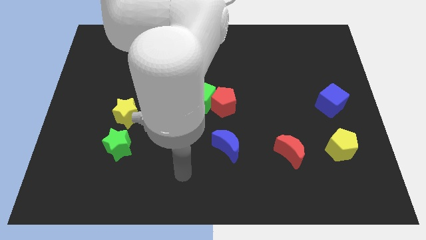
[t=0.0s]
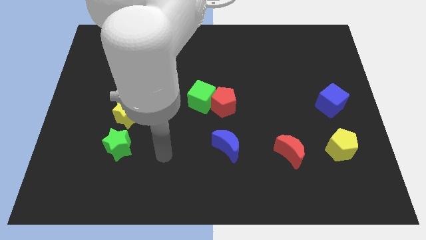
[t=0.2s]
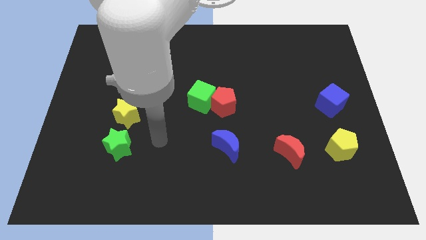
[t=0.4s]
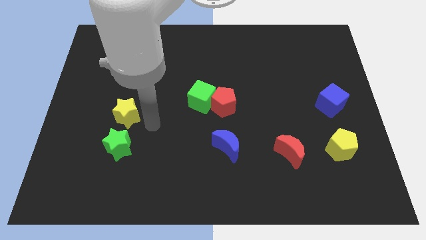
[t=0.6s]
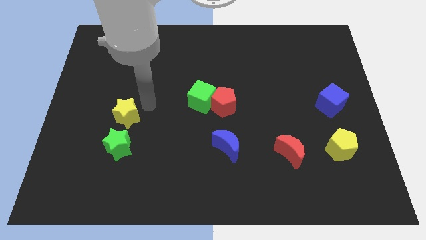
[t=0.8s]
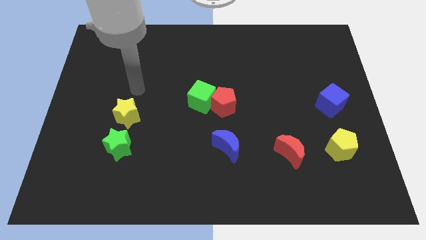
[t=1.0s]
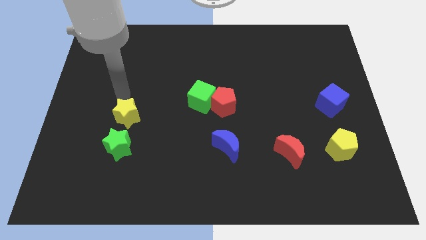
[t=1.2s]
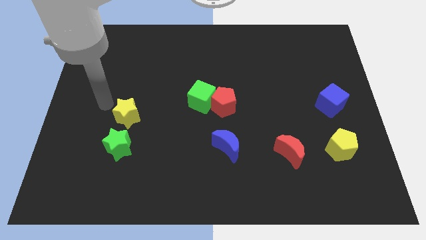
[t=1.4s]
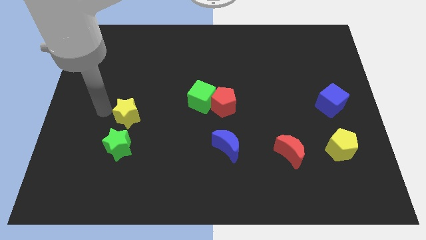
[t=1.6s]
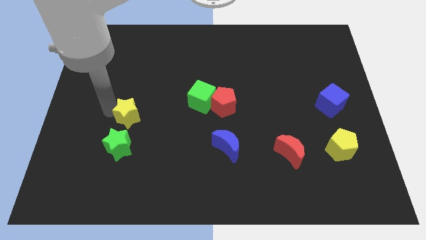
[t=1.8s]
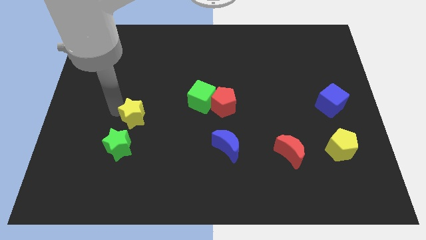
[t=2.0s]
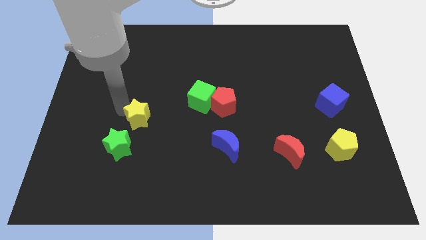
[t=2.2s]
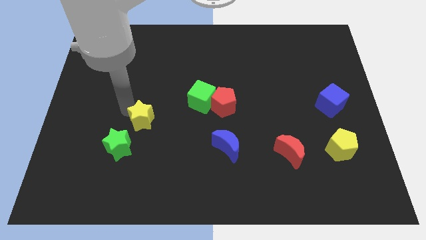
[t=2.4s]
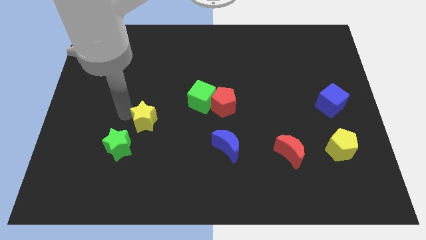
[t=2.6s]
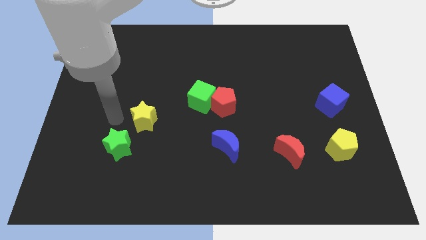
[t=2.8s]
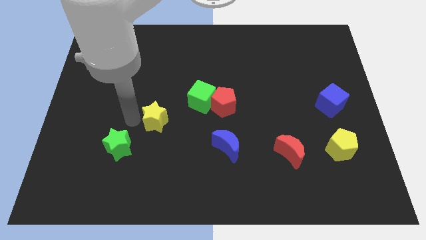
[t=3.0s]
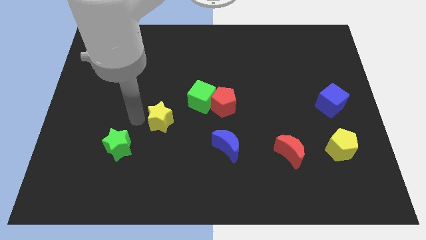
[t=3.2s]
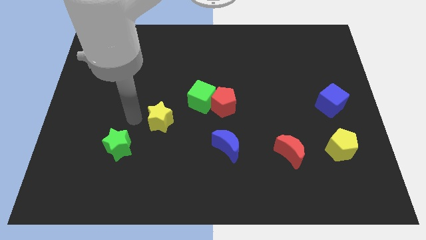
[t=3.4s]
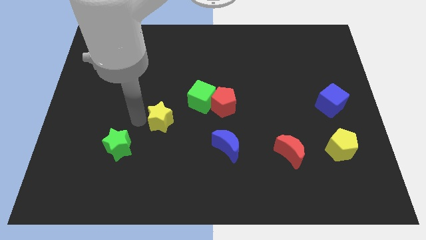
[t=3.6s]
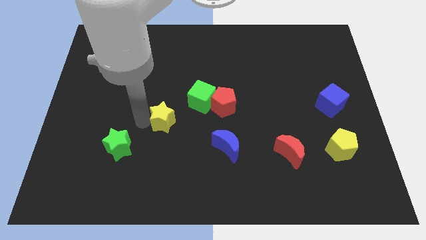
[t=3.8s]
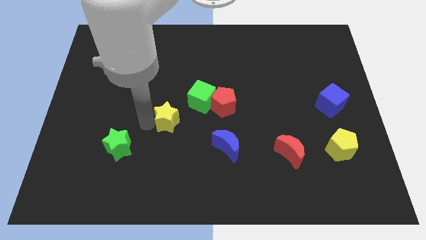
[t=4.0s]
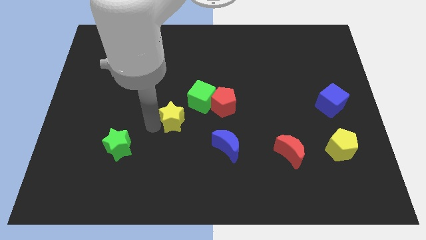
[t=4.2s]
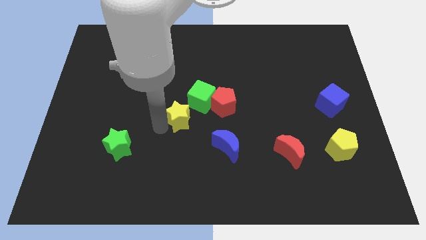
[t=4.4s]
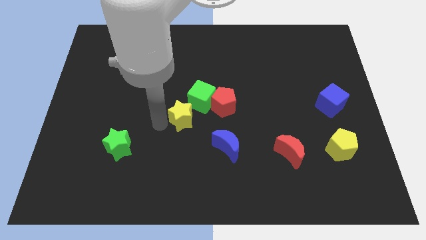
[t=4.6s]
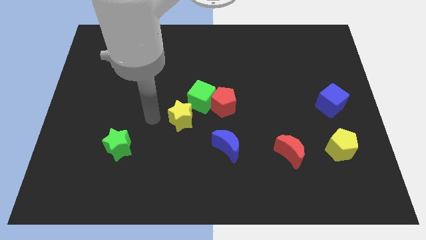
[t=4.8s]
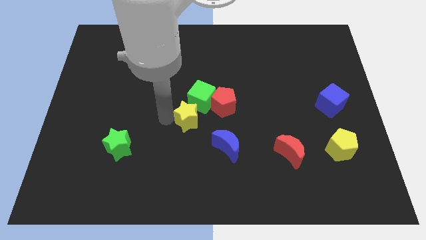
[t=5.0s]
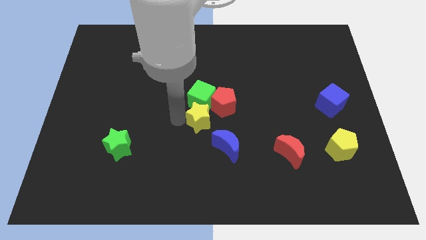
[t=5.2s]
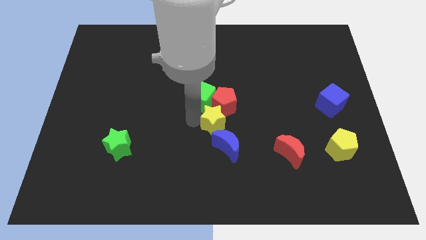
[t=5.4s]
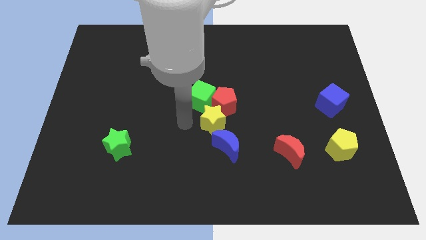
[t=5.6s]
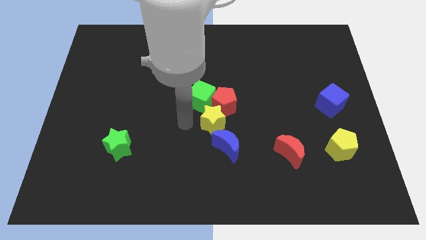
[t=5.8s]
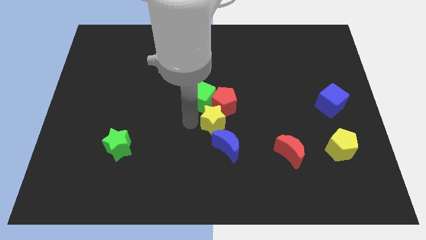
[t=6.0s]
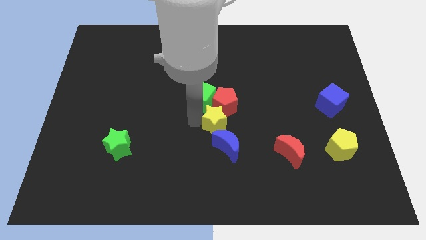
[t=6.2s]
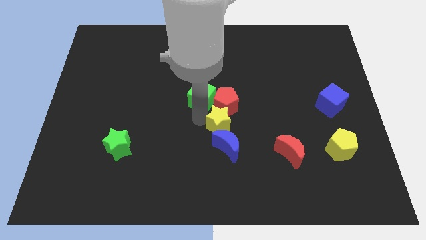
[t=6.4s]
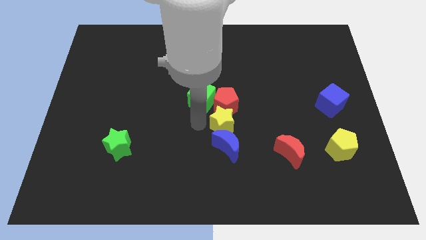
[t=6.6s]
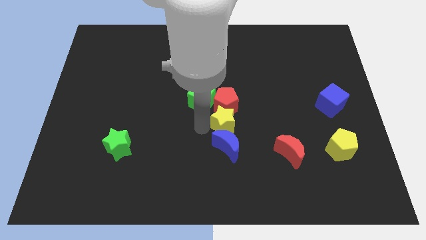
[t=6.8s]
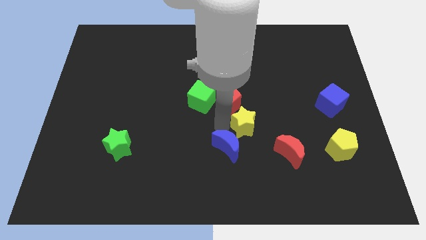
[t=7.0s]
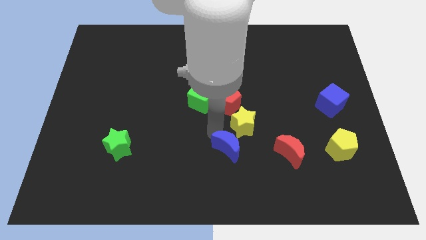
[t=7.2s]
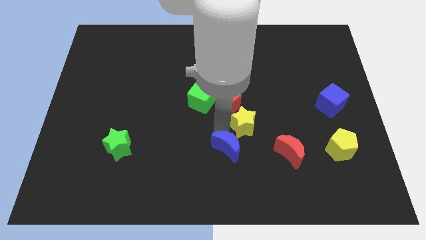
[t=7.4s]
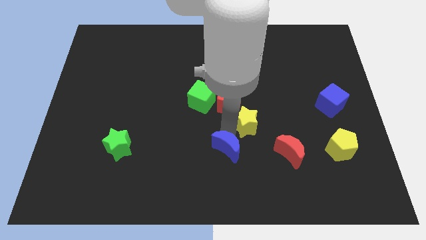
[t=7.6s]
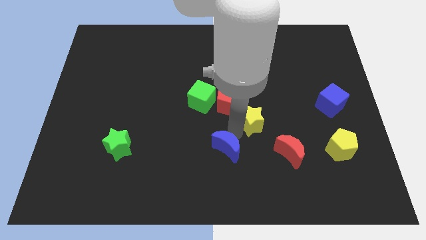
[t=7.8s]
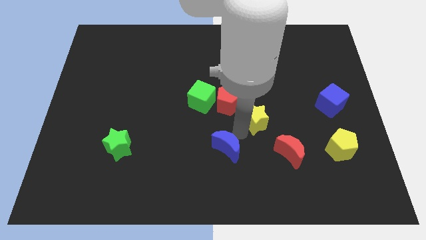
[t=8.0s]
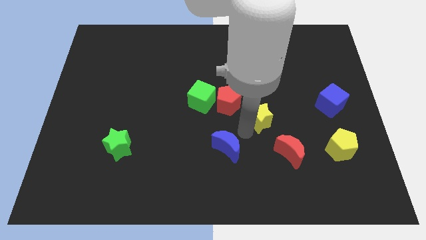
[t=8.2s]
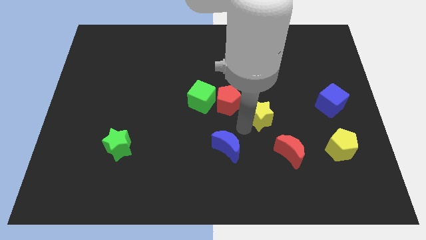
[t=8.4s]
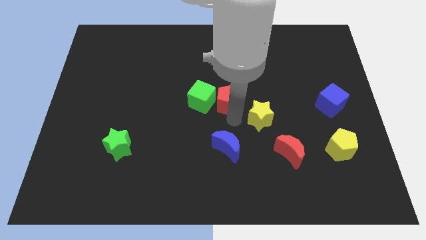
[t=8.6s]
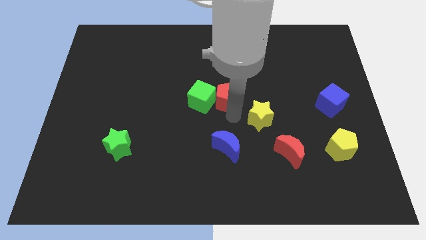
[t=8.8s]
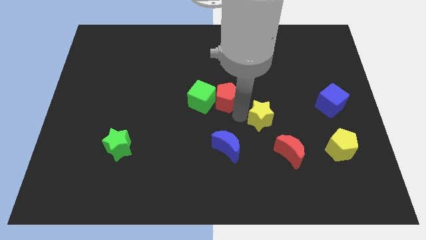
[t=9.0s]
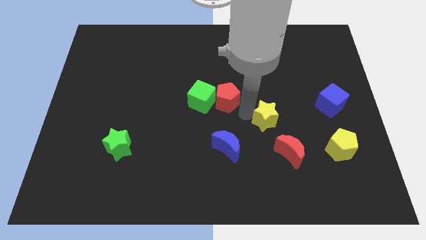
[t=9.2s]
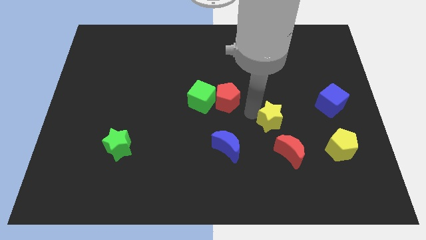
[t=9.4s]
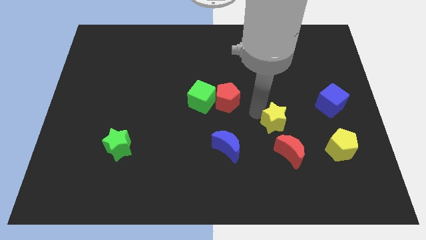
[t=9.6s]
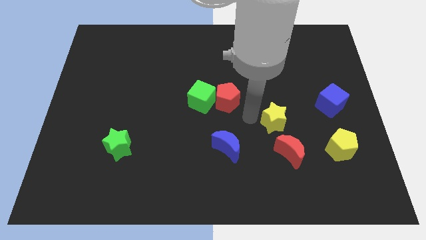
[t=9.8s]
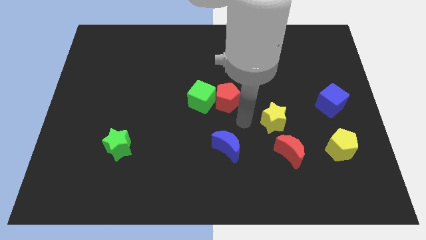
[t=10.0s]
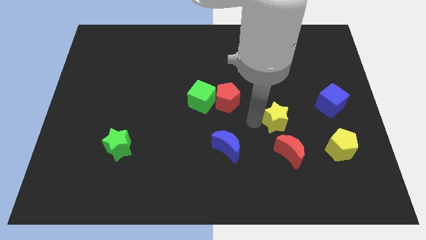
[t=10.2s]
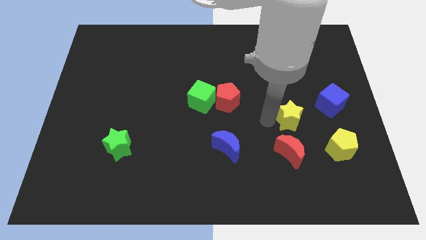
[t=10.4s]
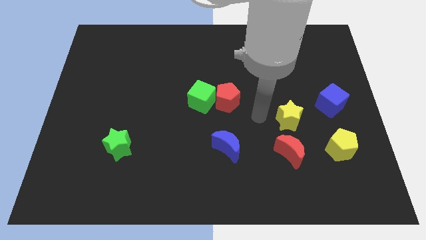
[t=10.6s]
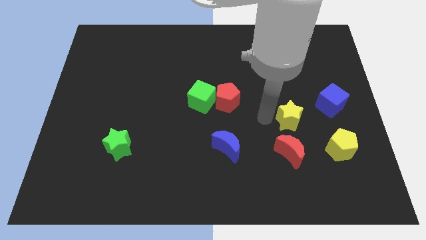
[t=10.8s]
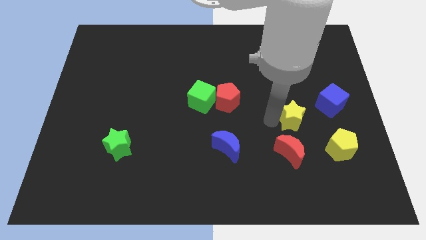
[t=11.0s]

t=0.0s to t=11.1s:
move the yellow star to the bottom left of the blue cube

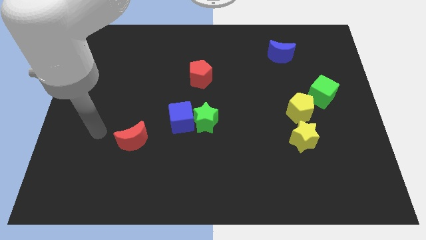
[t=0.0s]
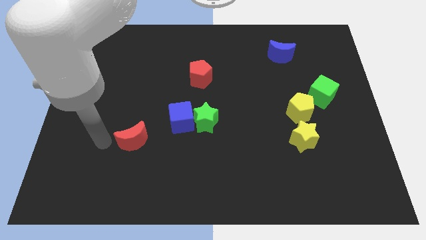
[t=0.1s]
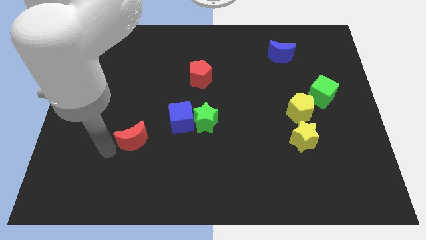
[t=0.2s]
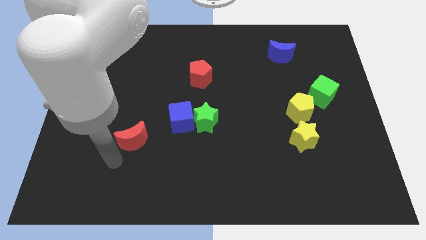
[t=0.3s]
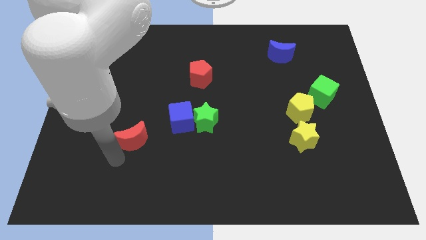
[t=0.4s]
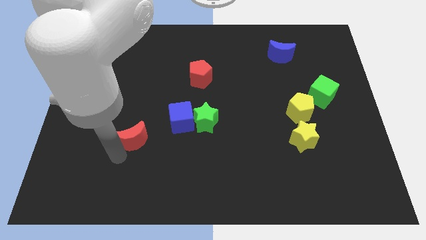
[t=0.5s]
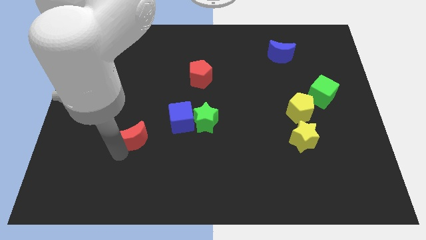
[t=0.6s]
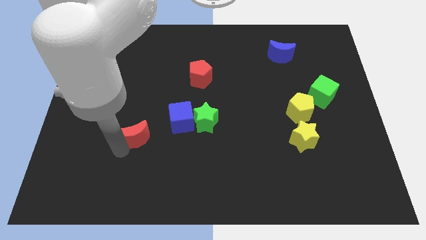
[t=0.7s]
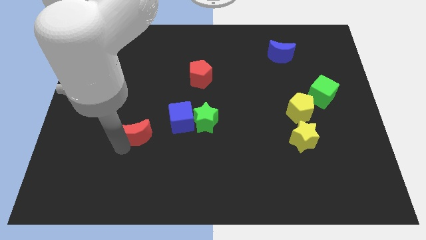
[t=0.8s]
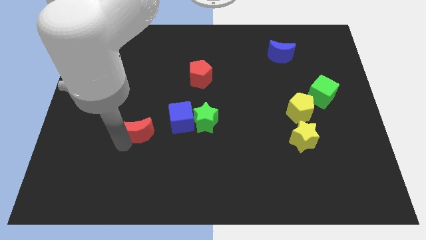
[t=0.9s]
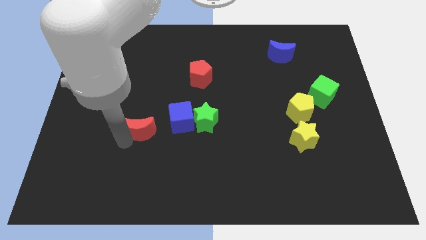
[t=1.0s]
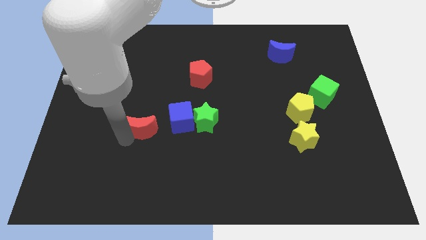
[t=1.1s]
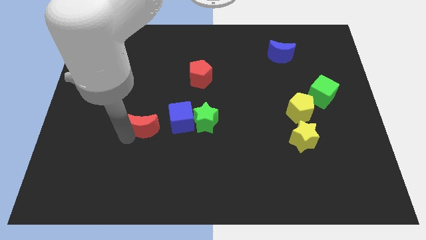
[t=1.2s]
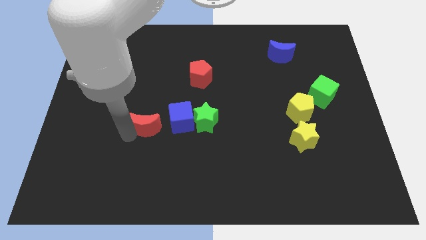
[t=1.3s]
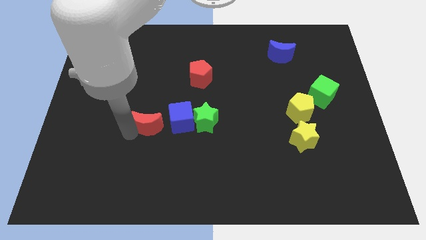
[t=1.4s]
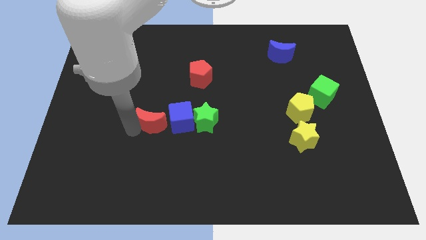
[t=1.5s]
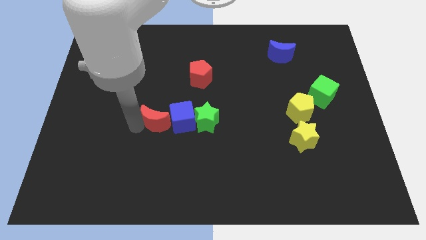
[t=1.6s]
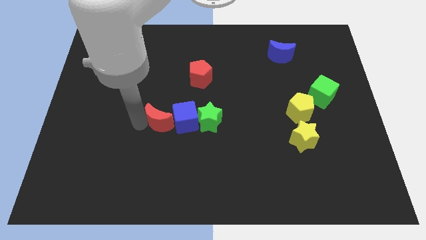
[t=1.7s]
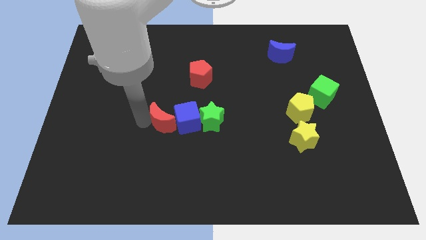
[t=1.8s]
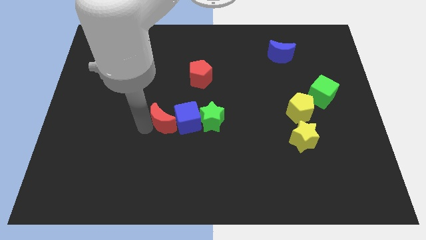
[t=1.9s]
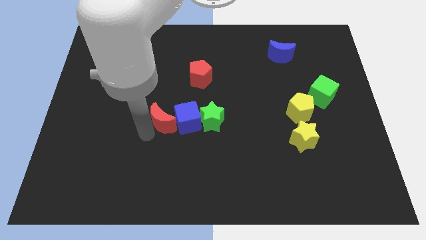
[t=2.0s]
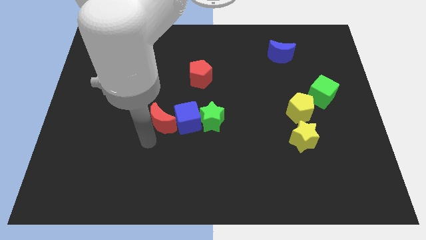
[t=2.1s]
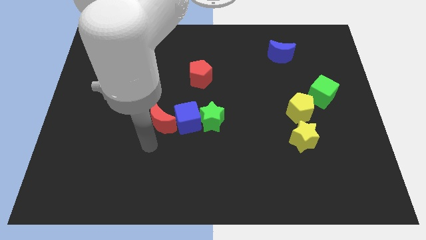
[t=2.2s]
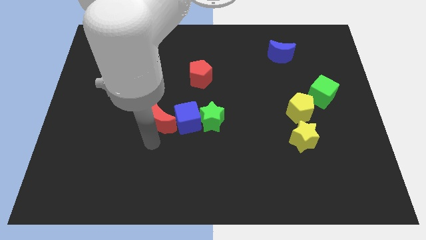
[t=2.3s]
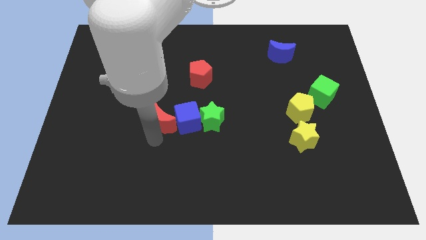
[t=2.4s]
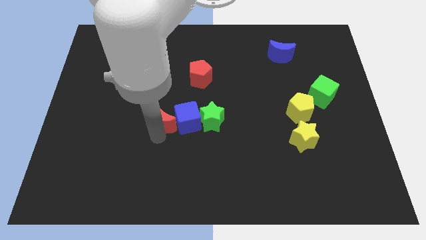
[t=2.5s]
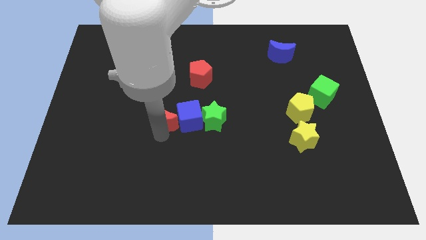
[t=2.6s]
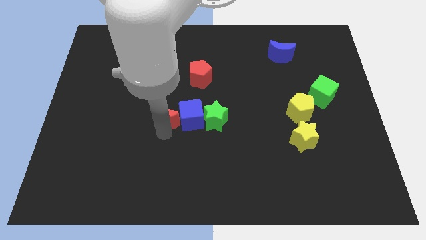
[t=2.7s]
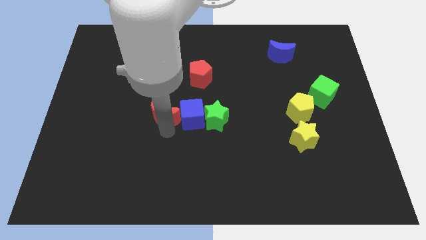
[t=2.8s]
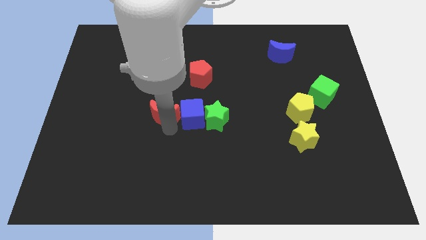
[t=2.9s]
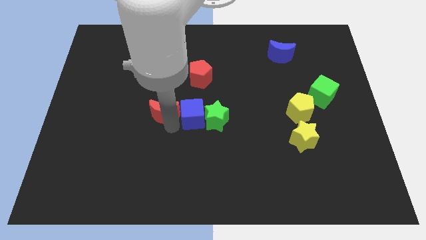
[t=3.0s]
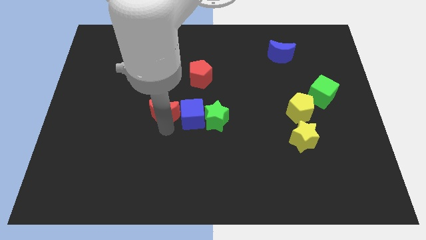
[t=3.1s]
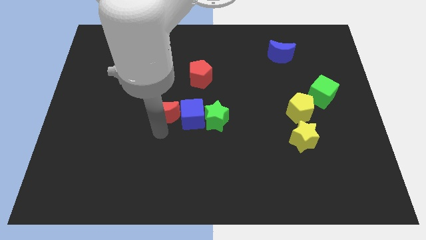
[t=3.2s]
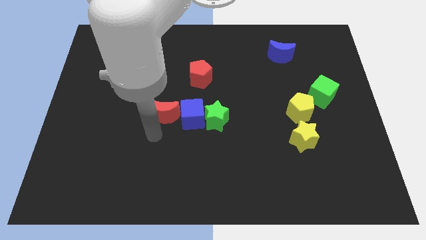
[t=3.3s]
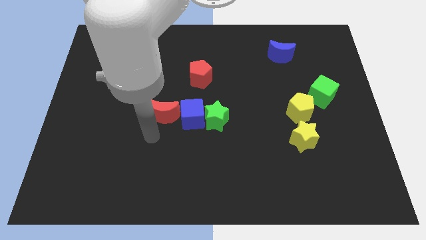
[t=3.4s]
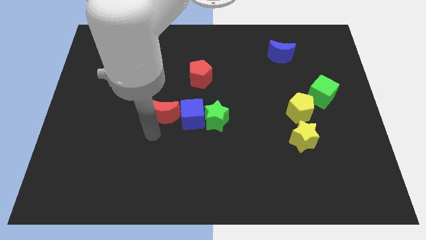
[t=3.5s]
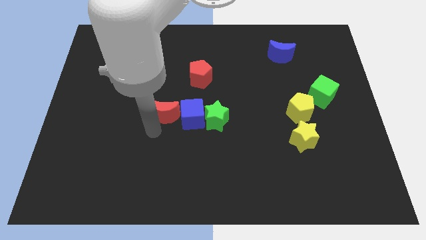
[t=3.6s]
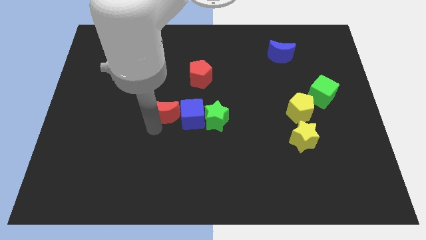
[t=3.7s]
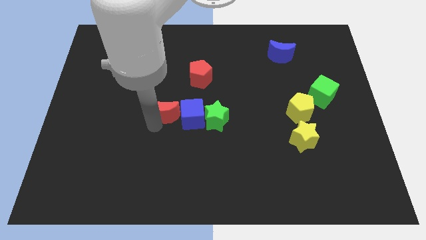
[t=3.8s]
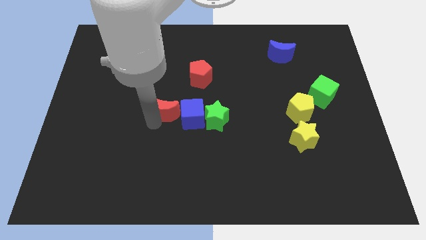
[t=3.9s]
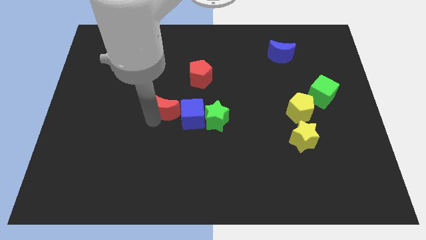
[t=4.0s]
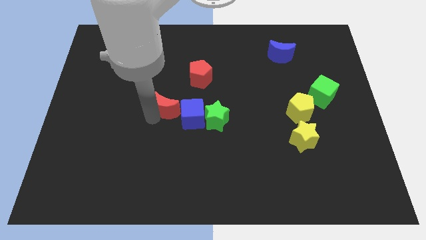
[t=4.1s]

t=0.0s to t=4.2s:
put the red moon to the bottom left side of the red pentagon
